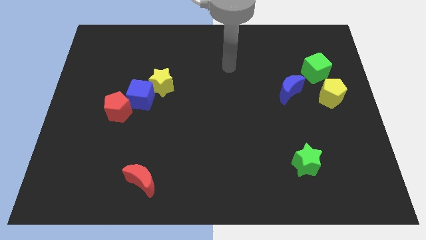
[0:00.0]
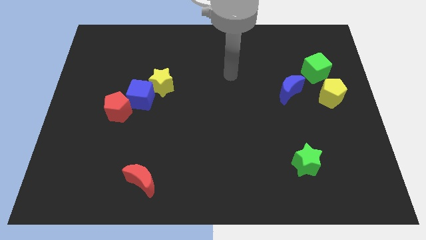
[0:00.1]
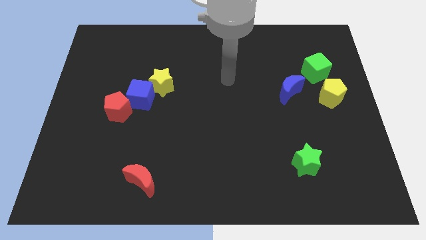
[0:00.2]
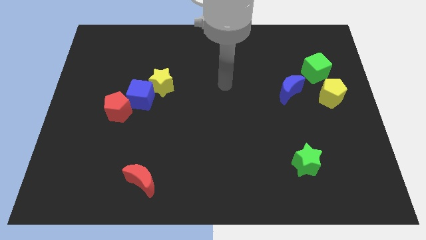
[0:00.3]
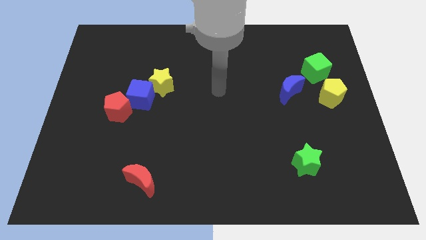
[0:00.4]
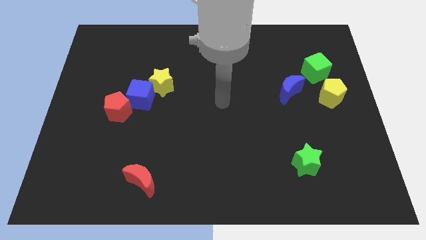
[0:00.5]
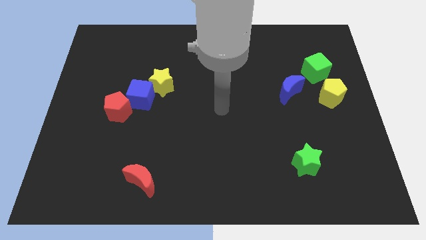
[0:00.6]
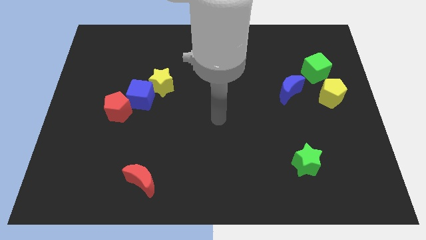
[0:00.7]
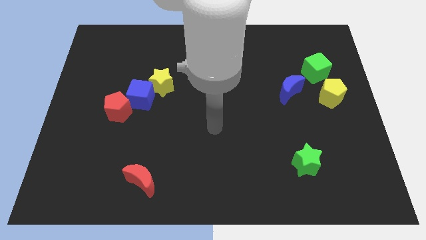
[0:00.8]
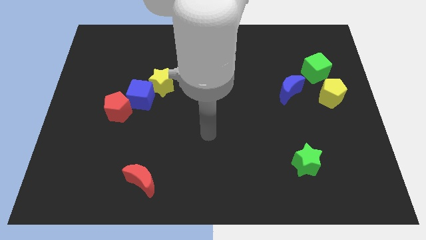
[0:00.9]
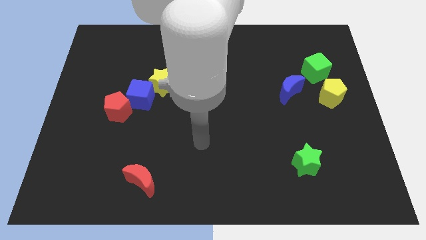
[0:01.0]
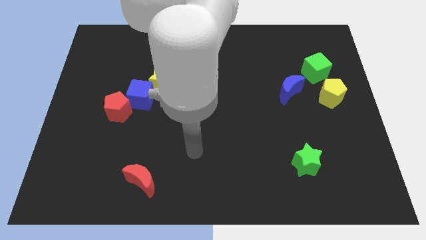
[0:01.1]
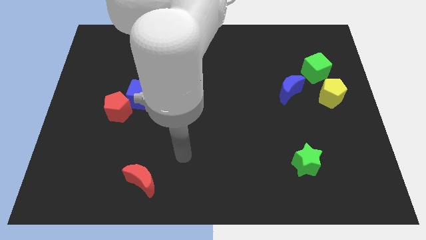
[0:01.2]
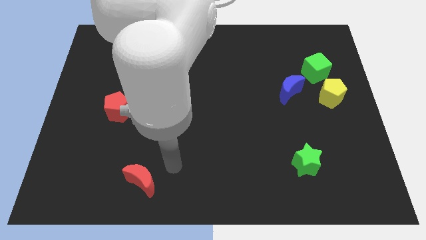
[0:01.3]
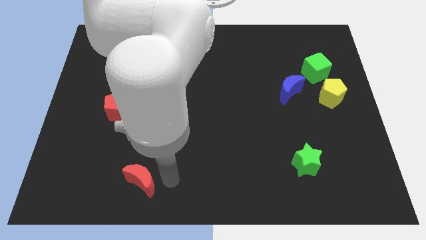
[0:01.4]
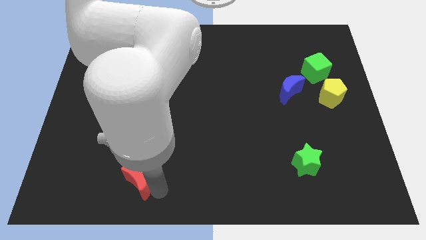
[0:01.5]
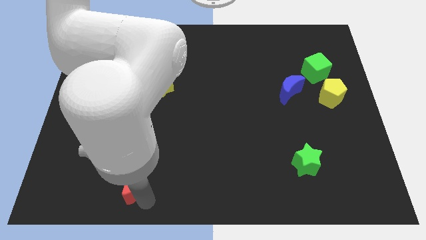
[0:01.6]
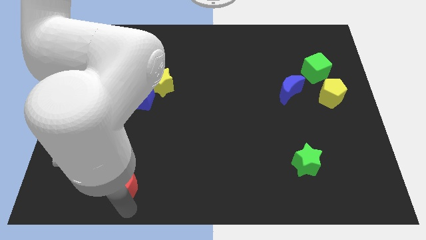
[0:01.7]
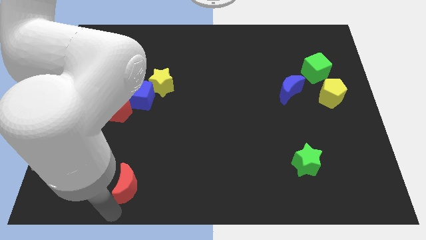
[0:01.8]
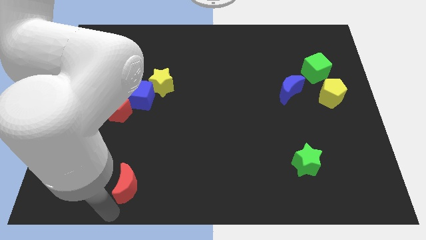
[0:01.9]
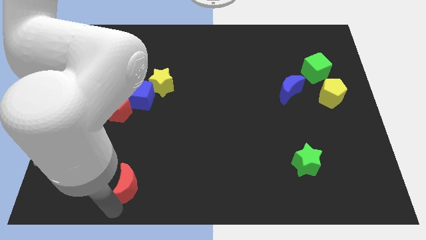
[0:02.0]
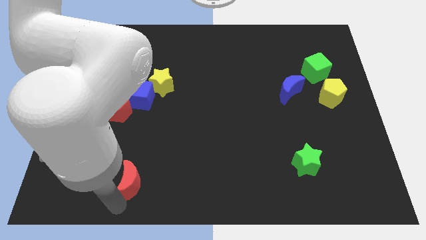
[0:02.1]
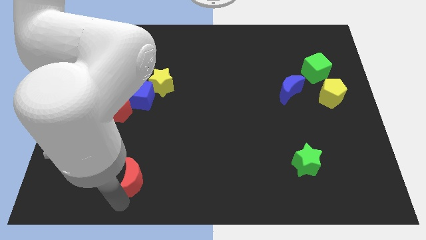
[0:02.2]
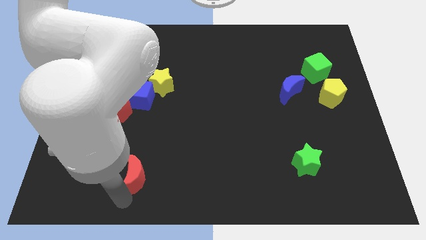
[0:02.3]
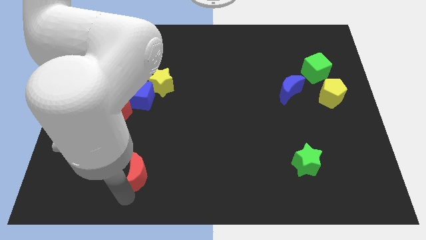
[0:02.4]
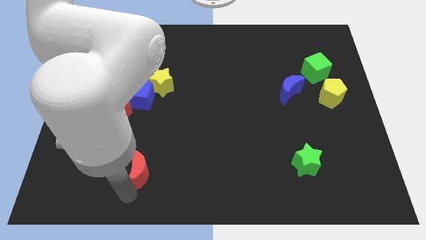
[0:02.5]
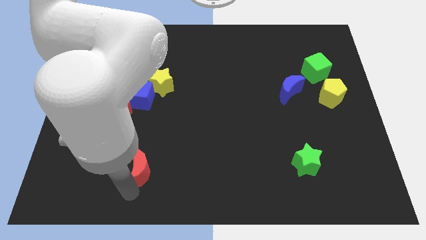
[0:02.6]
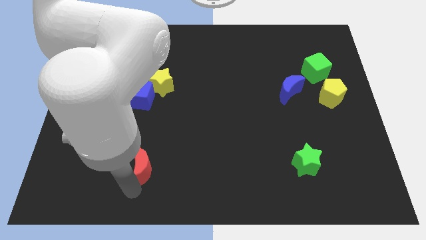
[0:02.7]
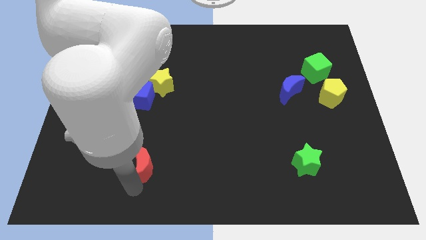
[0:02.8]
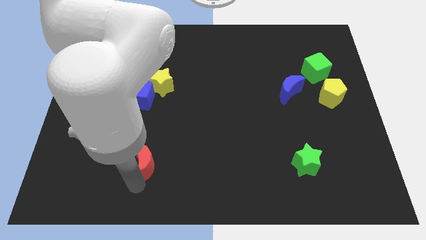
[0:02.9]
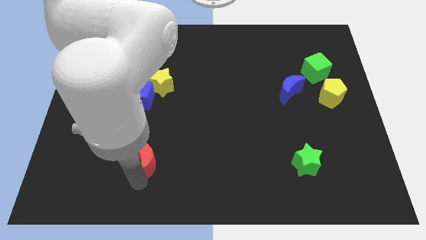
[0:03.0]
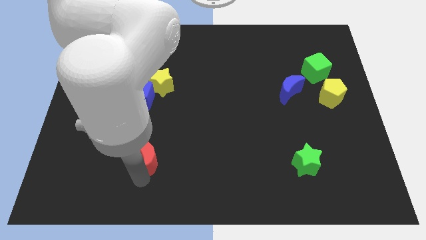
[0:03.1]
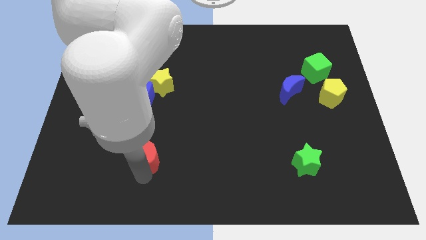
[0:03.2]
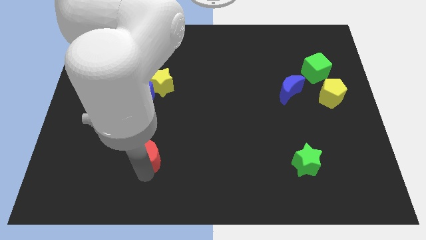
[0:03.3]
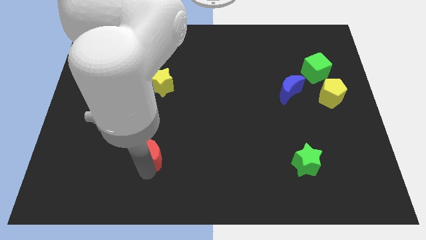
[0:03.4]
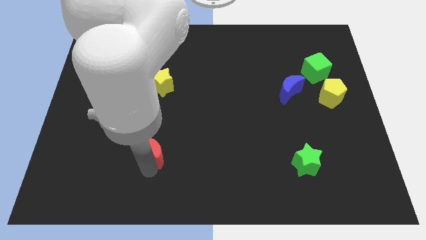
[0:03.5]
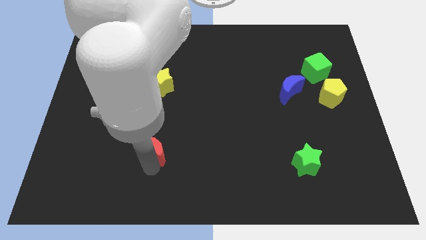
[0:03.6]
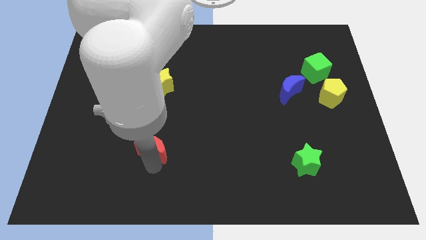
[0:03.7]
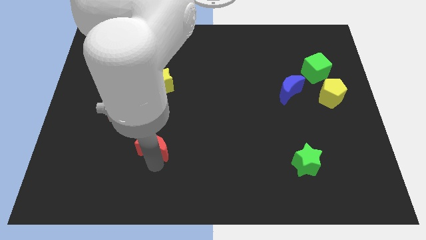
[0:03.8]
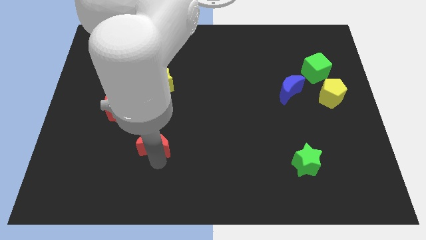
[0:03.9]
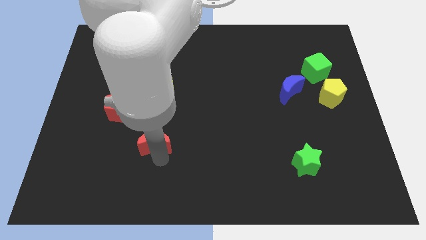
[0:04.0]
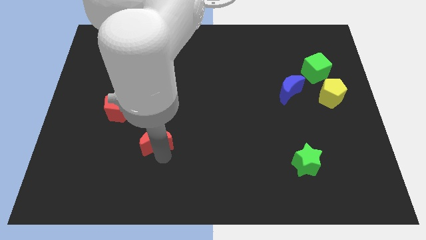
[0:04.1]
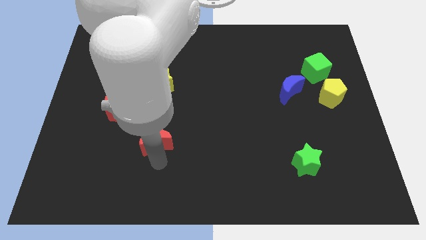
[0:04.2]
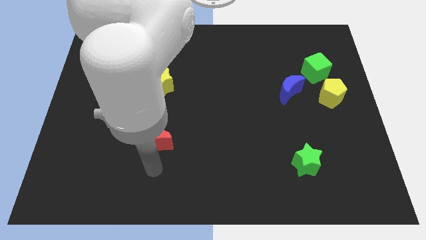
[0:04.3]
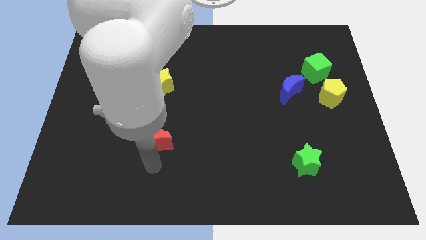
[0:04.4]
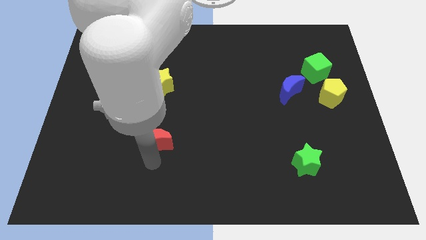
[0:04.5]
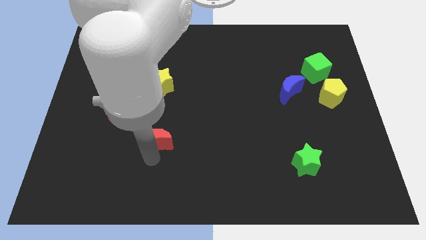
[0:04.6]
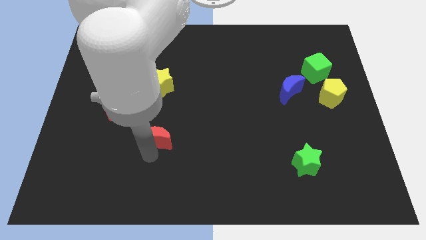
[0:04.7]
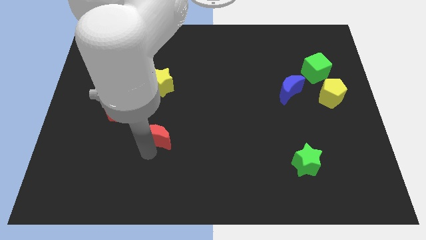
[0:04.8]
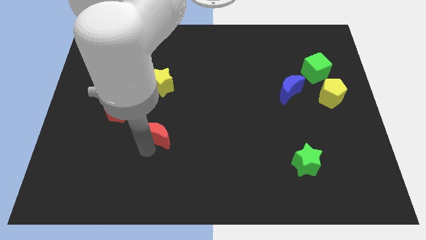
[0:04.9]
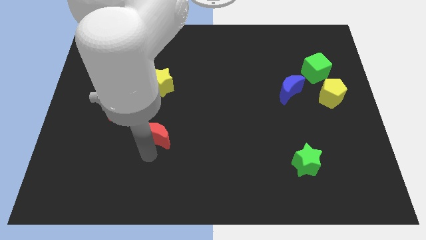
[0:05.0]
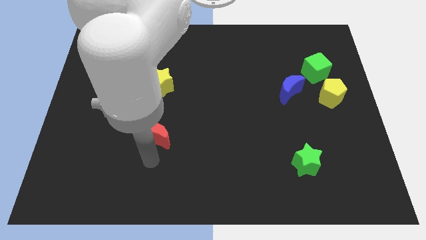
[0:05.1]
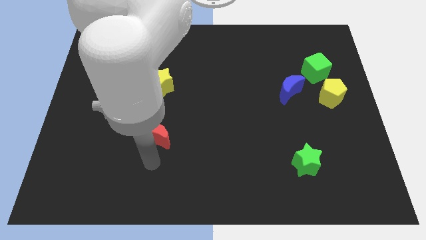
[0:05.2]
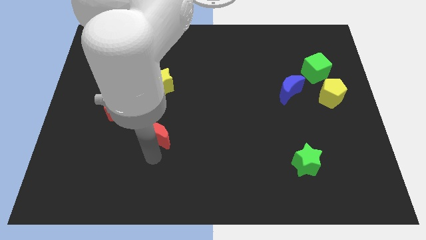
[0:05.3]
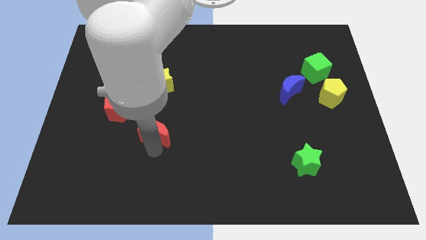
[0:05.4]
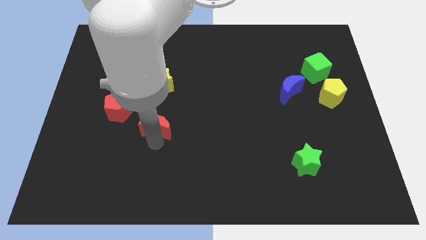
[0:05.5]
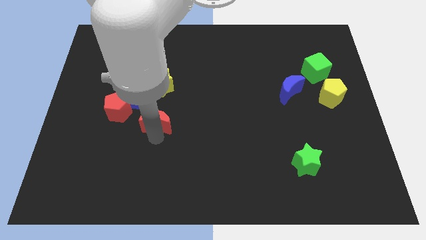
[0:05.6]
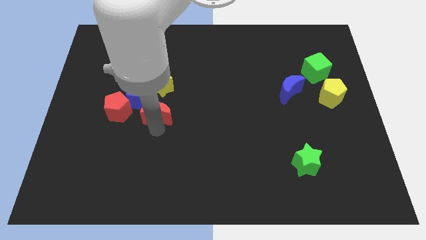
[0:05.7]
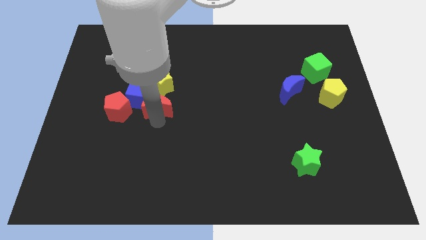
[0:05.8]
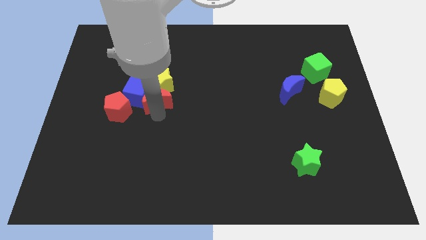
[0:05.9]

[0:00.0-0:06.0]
move the red moon next to the yellow star

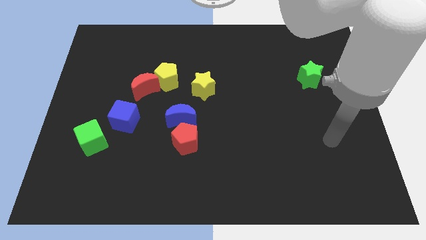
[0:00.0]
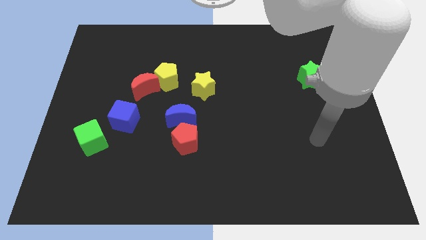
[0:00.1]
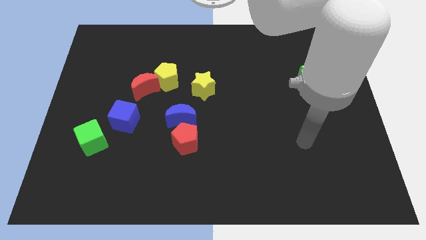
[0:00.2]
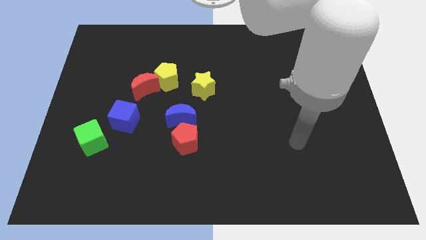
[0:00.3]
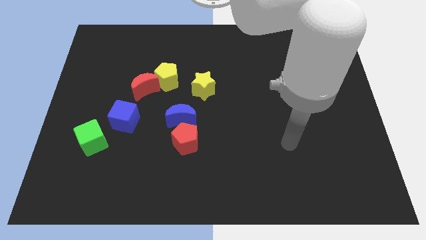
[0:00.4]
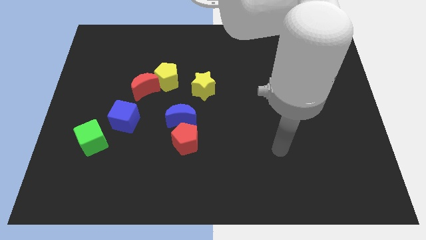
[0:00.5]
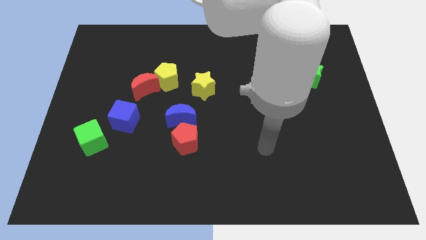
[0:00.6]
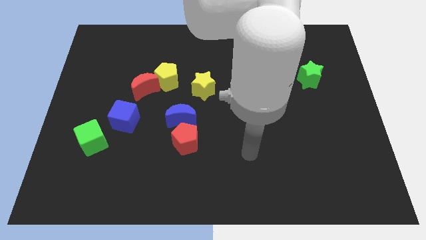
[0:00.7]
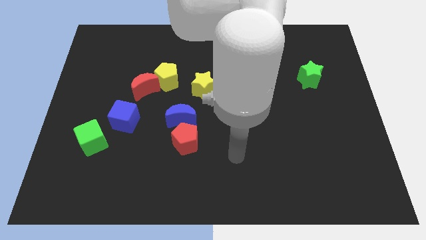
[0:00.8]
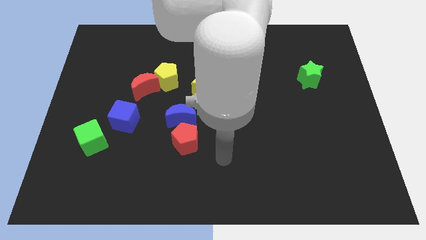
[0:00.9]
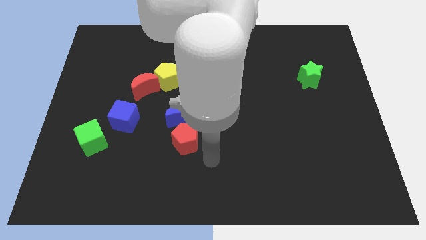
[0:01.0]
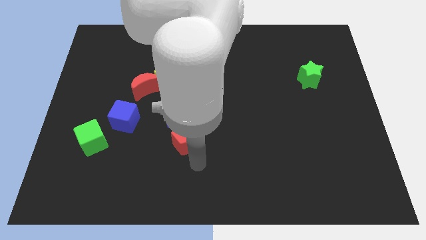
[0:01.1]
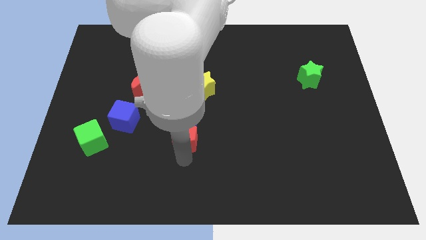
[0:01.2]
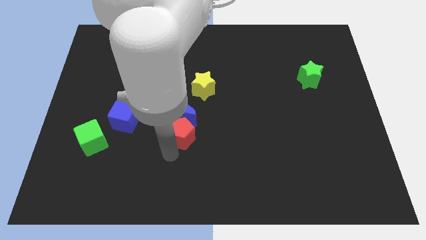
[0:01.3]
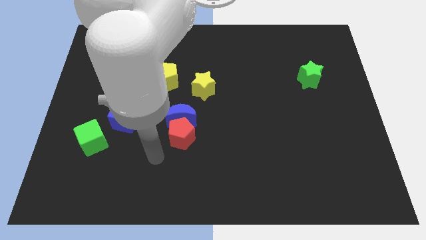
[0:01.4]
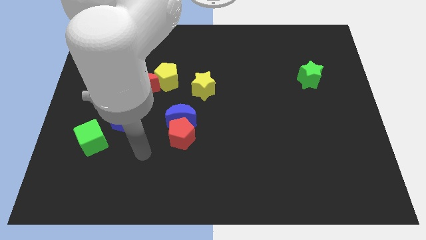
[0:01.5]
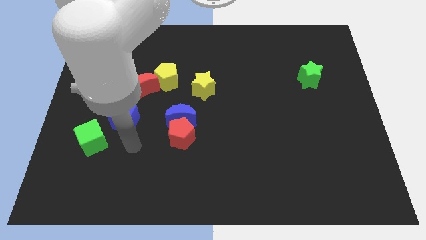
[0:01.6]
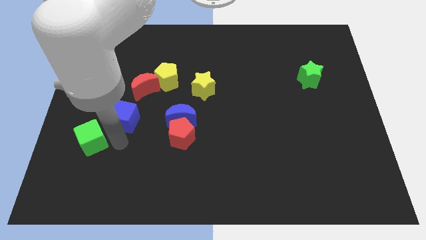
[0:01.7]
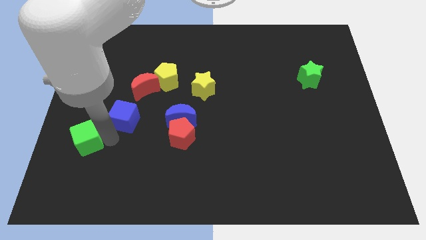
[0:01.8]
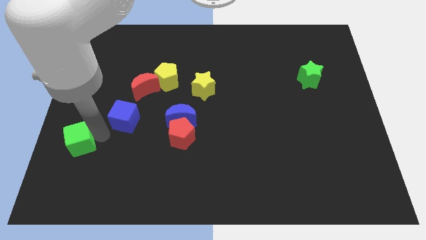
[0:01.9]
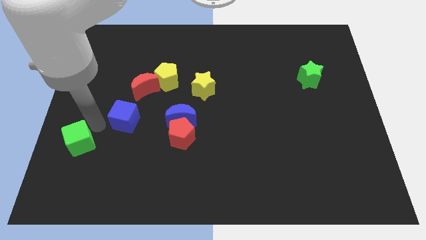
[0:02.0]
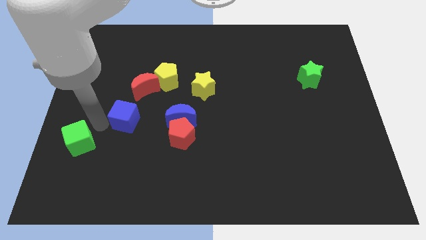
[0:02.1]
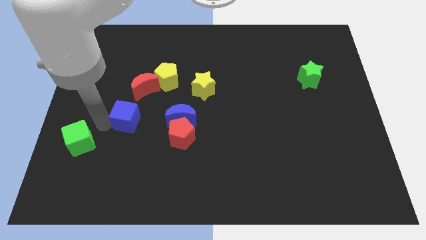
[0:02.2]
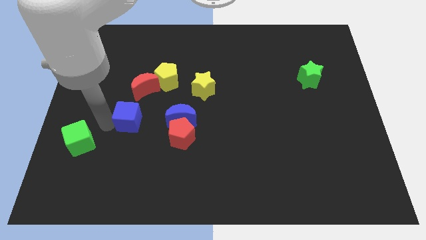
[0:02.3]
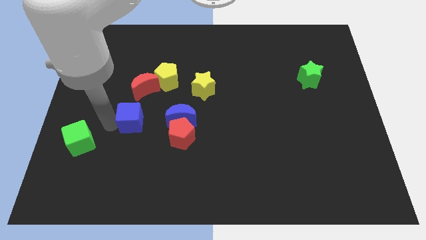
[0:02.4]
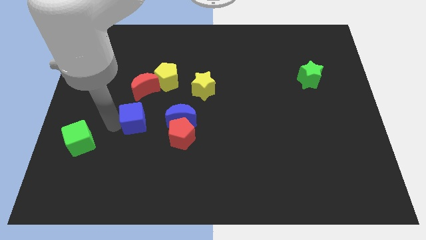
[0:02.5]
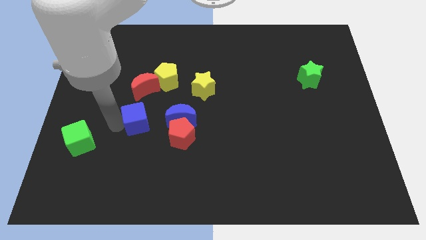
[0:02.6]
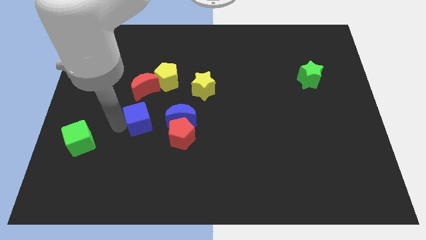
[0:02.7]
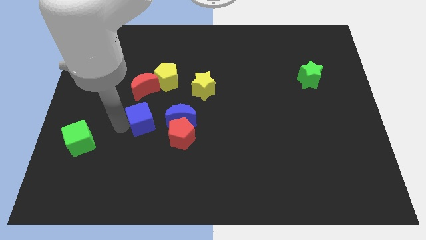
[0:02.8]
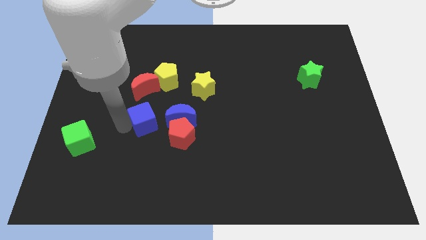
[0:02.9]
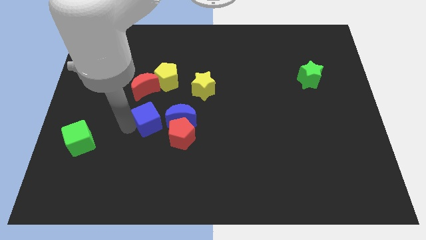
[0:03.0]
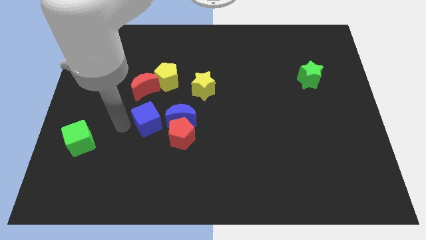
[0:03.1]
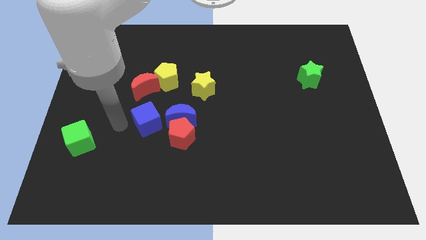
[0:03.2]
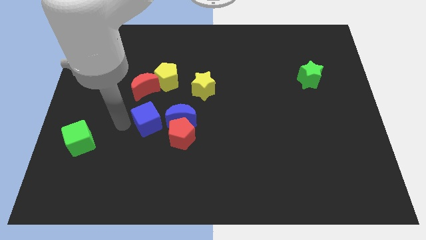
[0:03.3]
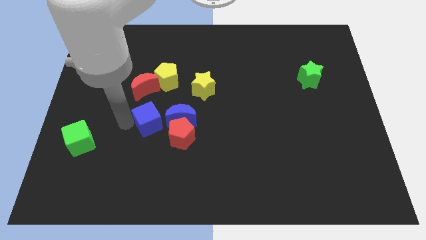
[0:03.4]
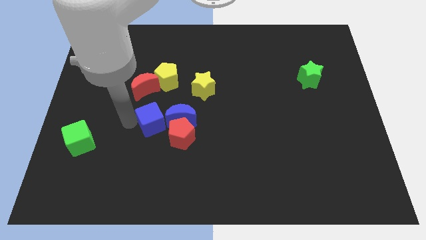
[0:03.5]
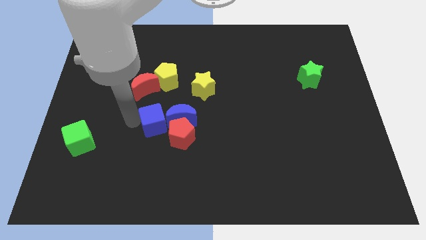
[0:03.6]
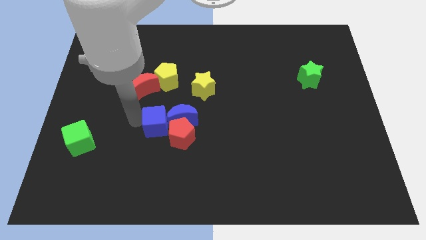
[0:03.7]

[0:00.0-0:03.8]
put the blue cube to the blue moon
